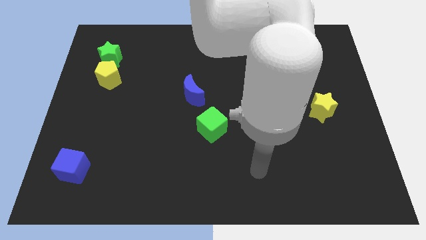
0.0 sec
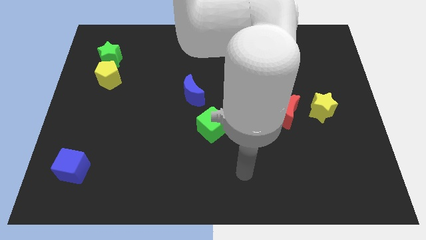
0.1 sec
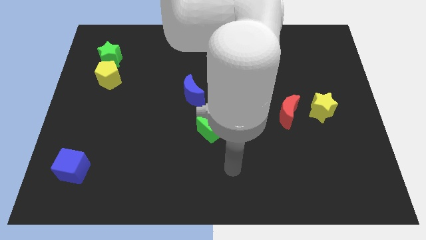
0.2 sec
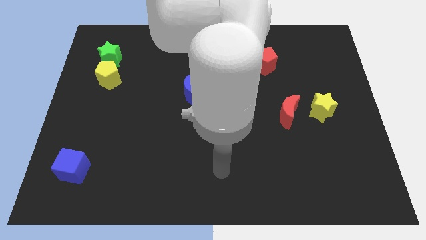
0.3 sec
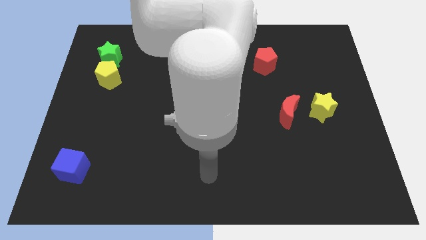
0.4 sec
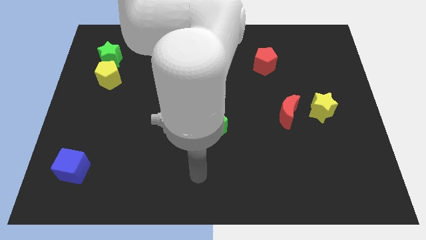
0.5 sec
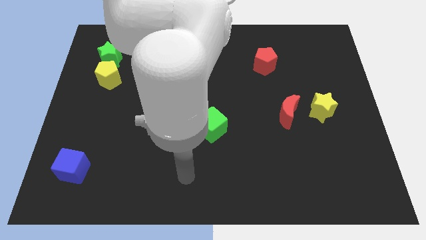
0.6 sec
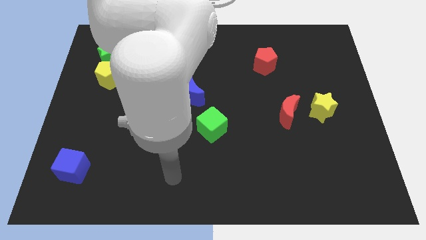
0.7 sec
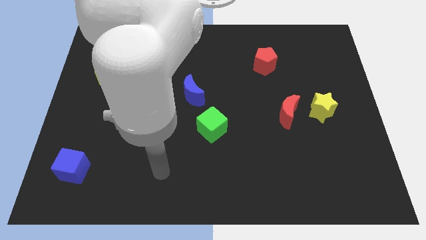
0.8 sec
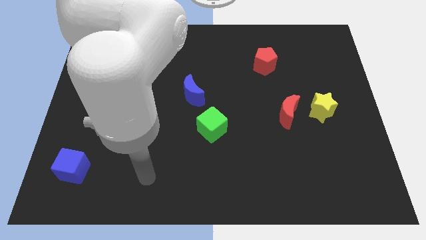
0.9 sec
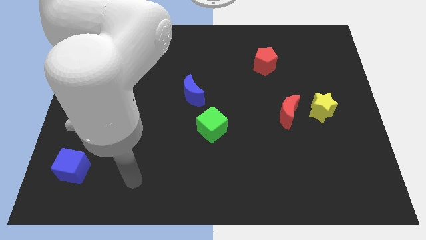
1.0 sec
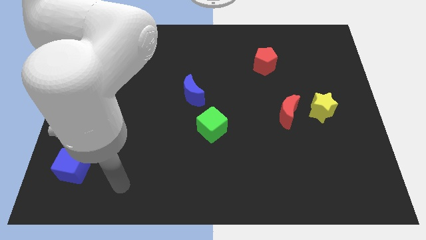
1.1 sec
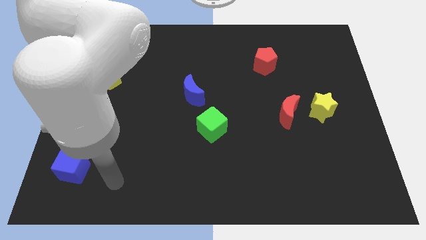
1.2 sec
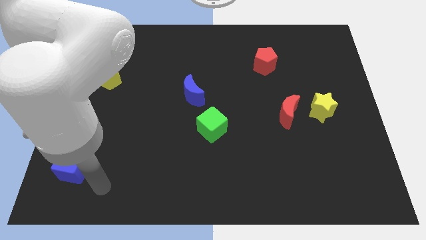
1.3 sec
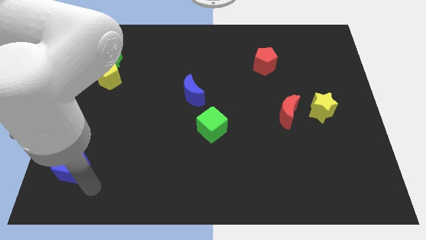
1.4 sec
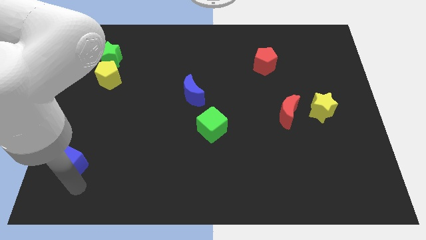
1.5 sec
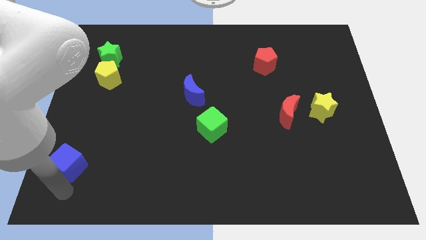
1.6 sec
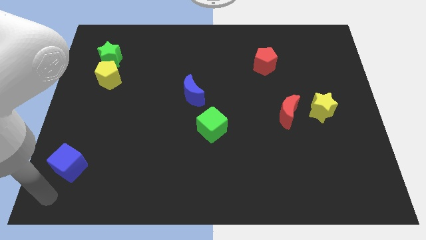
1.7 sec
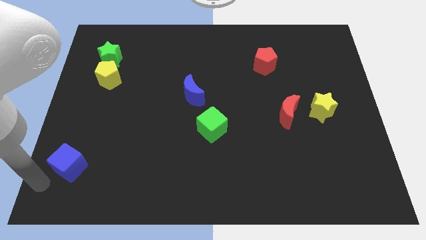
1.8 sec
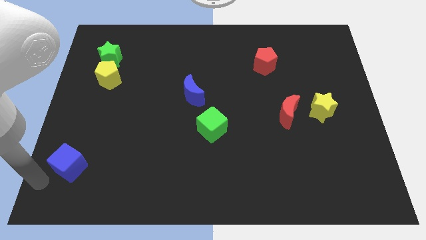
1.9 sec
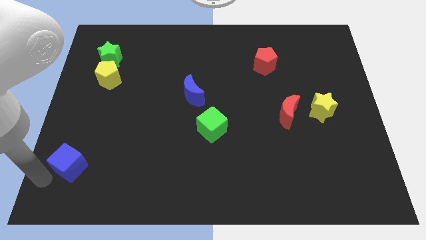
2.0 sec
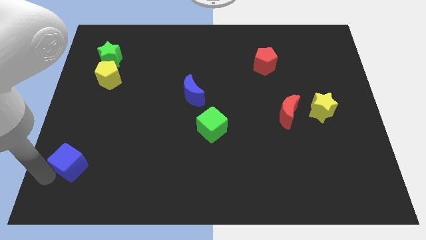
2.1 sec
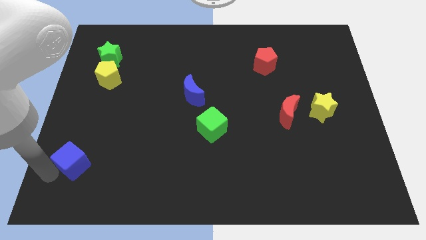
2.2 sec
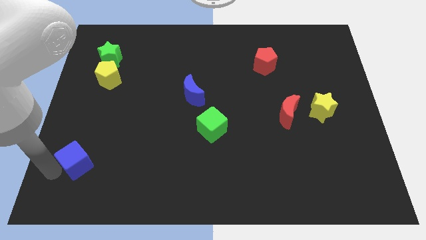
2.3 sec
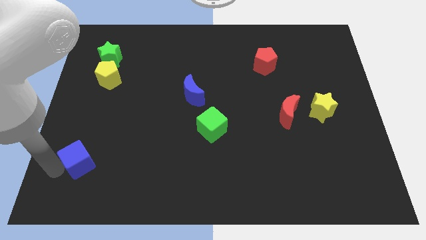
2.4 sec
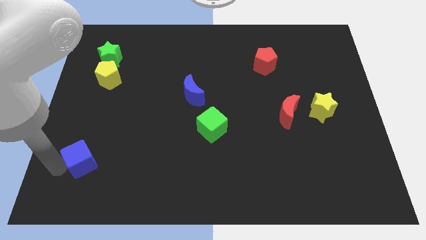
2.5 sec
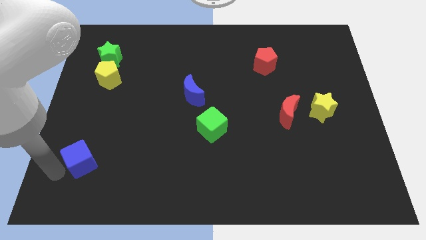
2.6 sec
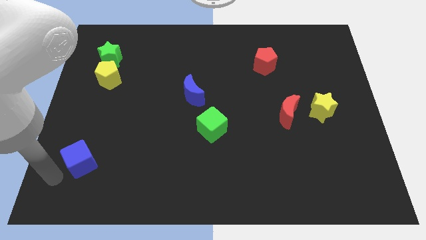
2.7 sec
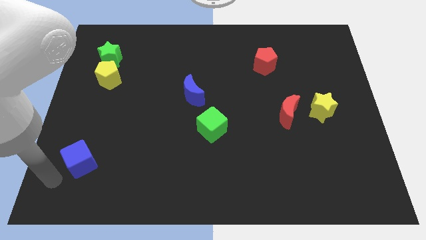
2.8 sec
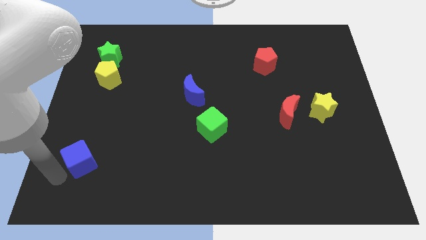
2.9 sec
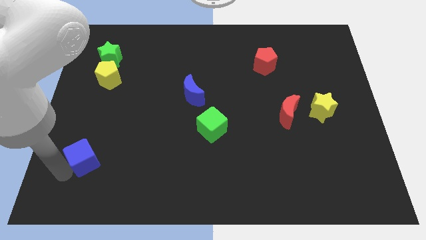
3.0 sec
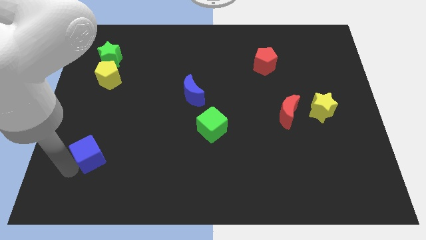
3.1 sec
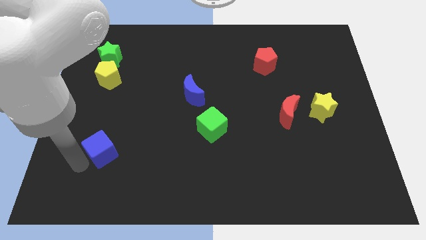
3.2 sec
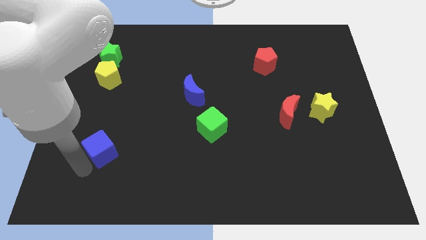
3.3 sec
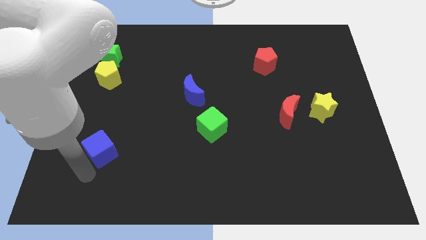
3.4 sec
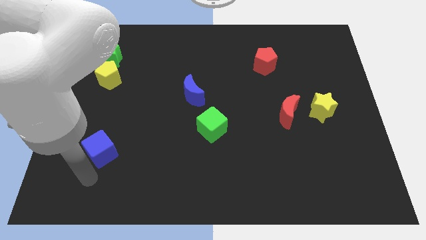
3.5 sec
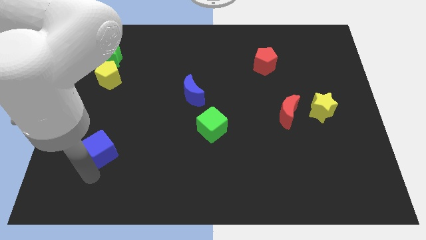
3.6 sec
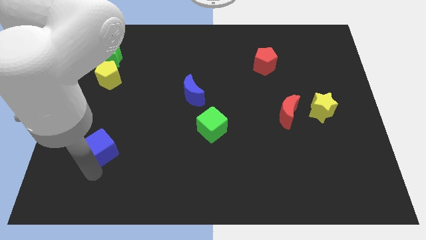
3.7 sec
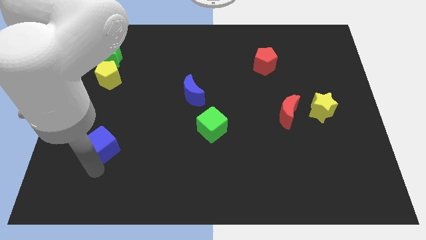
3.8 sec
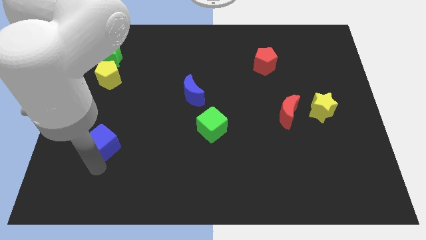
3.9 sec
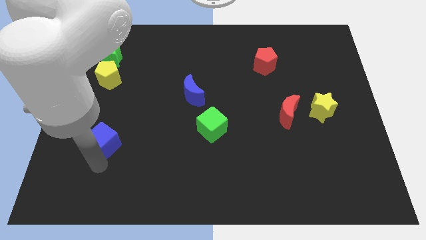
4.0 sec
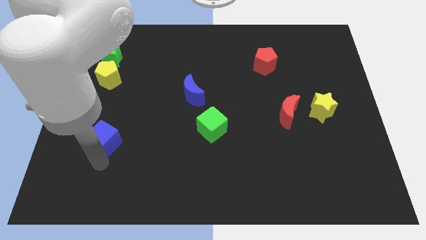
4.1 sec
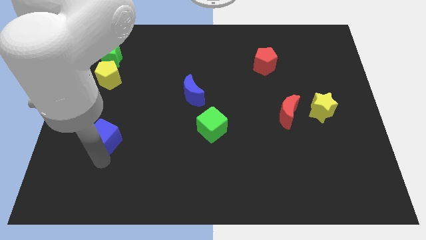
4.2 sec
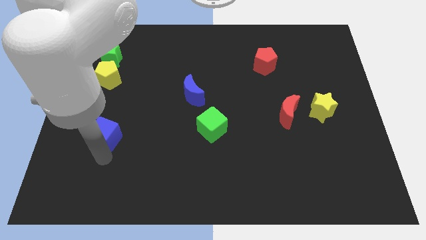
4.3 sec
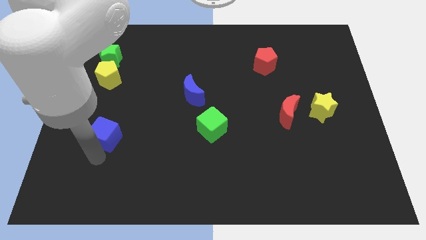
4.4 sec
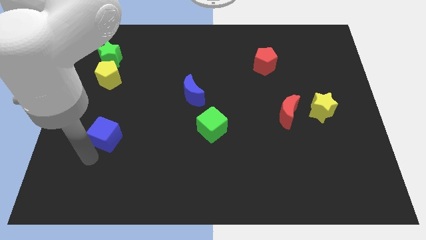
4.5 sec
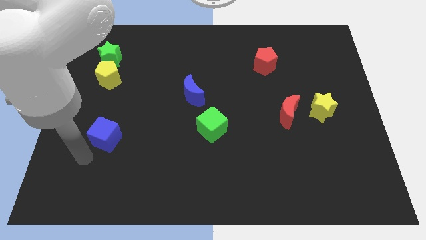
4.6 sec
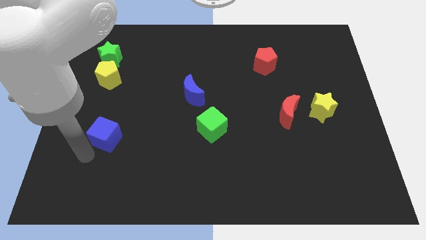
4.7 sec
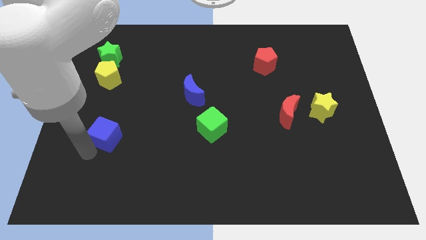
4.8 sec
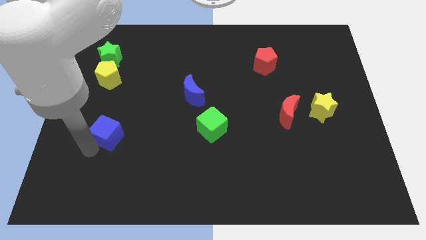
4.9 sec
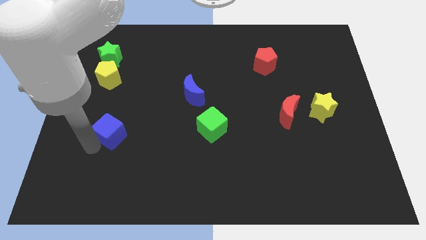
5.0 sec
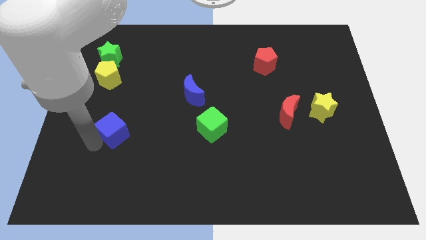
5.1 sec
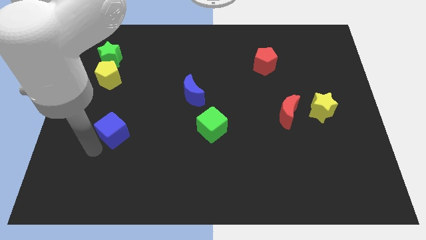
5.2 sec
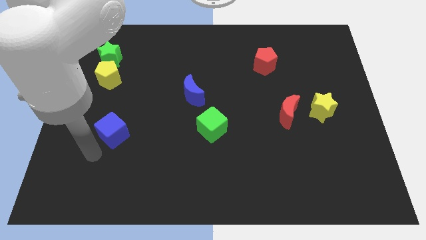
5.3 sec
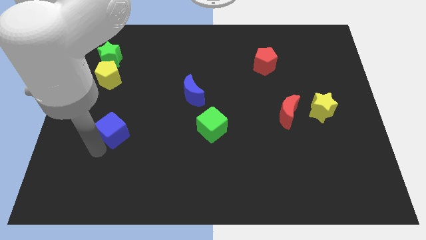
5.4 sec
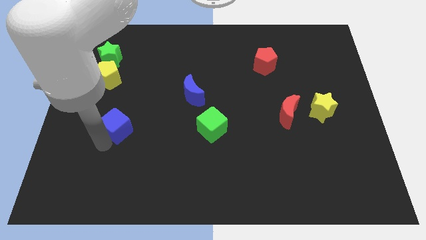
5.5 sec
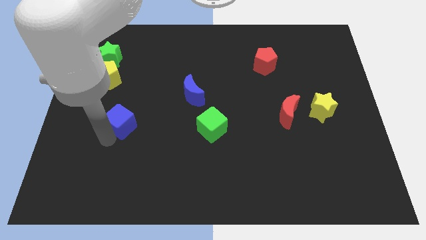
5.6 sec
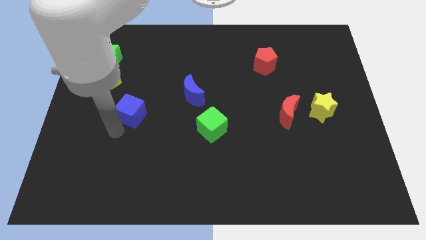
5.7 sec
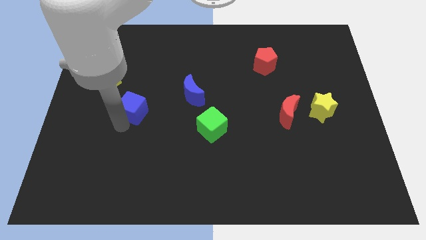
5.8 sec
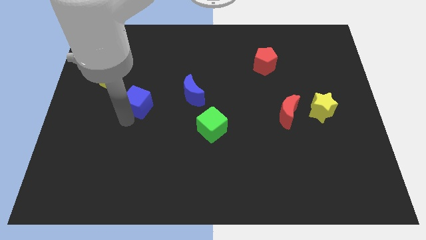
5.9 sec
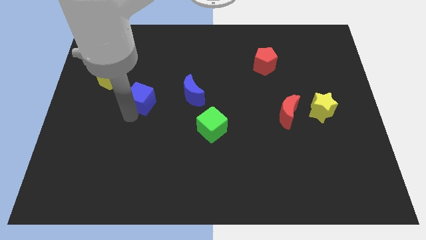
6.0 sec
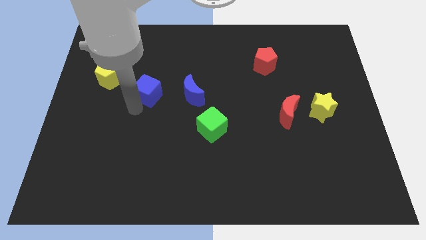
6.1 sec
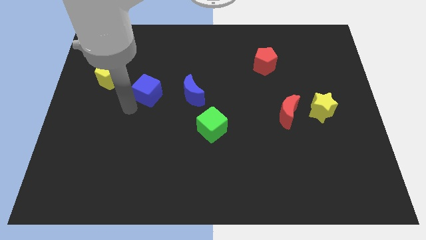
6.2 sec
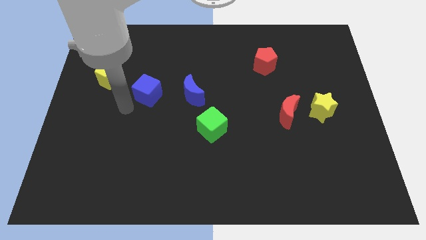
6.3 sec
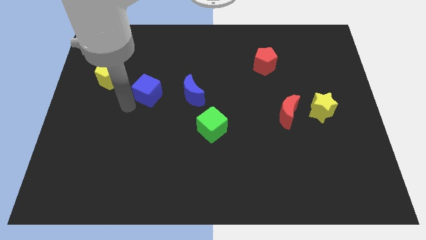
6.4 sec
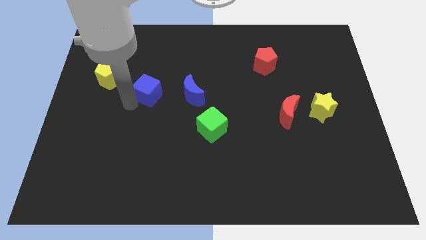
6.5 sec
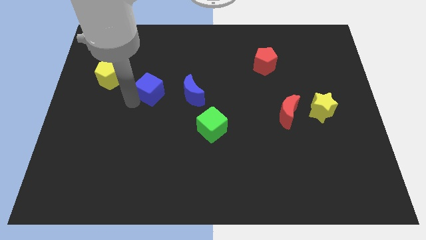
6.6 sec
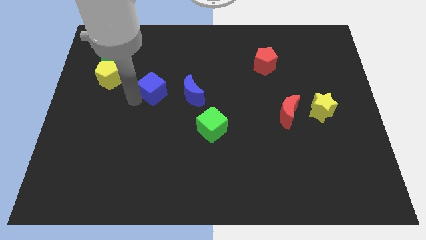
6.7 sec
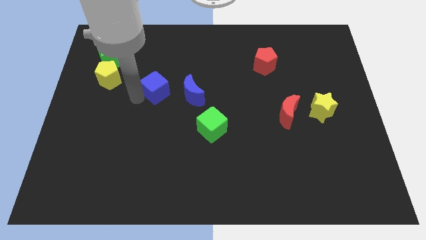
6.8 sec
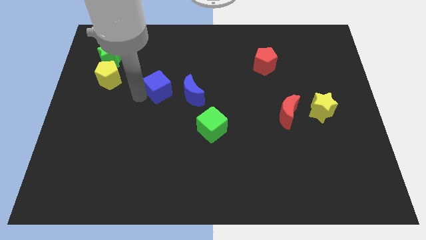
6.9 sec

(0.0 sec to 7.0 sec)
put the blue cube diagonally up and to the left of the blue moon
